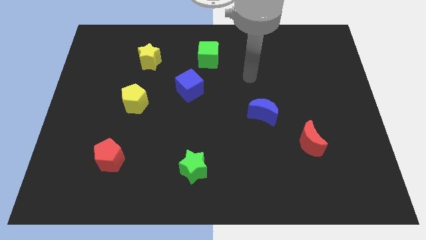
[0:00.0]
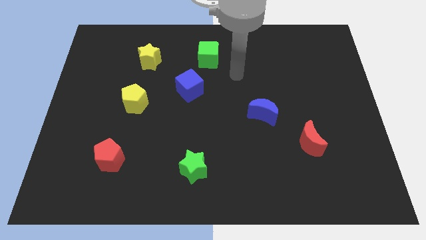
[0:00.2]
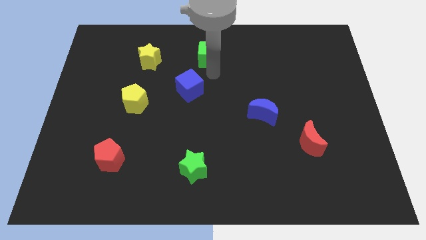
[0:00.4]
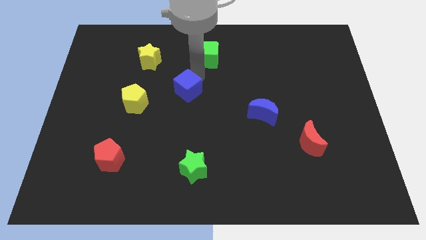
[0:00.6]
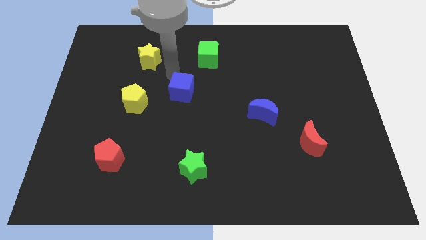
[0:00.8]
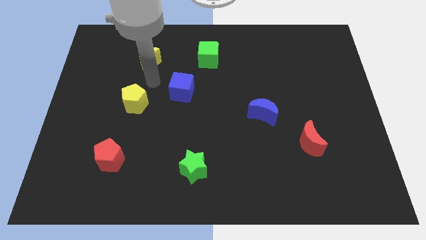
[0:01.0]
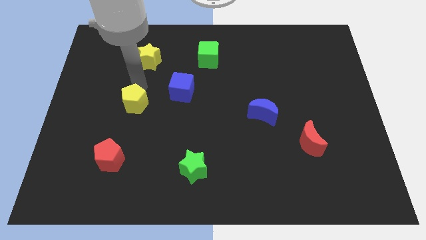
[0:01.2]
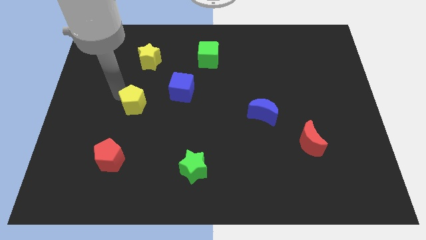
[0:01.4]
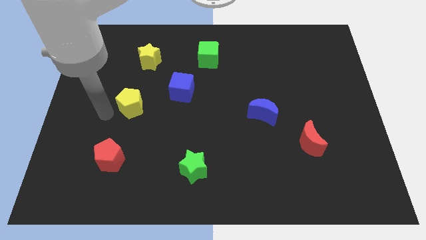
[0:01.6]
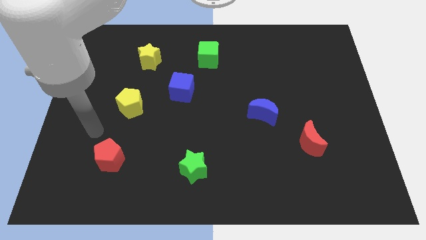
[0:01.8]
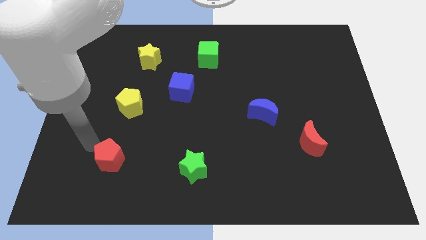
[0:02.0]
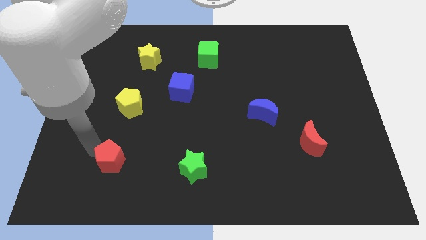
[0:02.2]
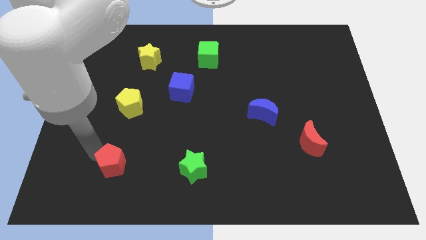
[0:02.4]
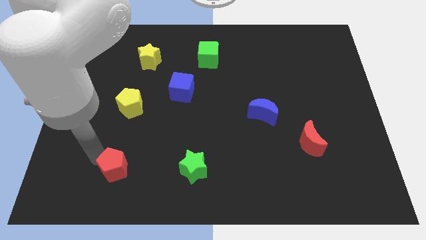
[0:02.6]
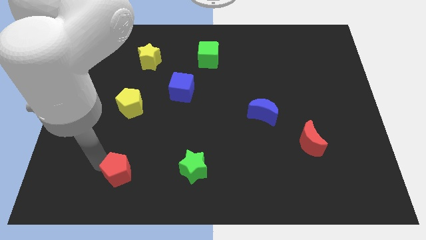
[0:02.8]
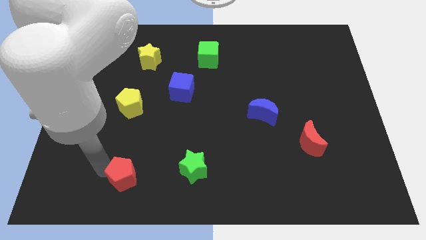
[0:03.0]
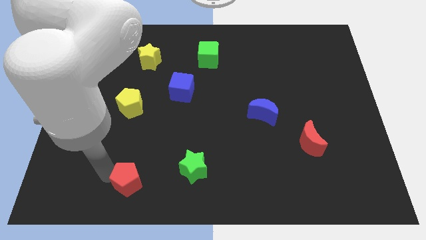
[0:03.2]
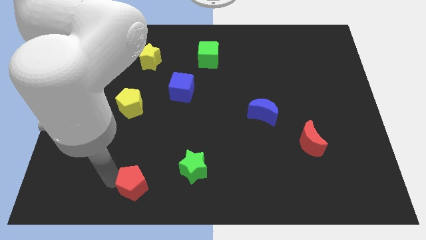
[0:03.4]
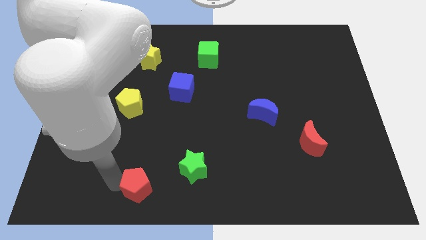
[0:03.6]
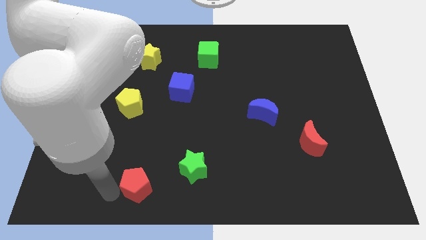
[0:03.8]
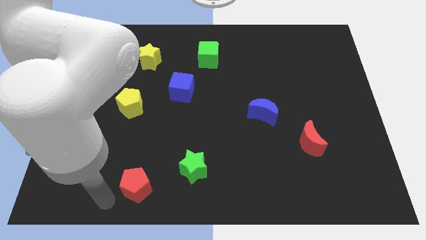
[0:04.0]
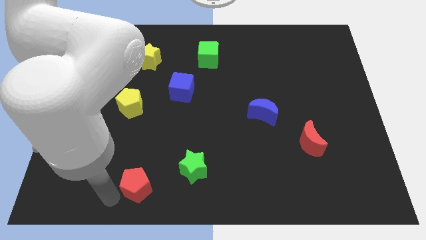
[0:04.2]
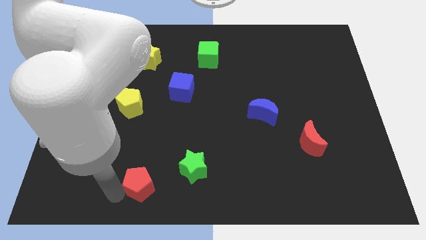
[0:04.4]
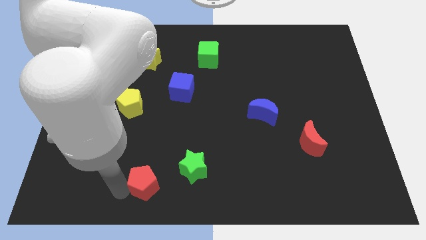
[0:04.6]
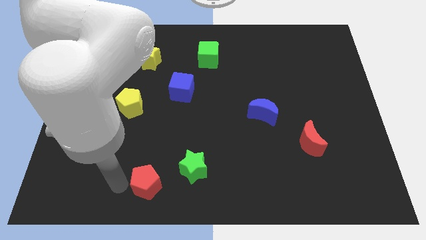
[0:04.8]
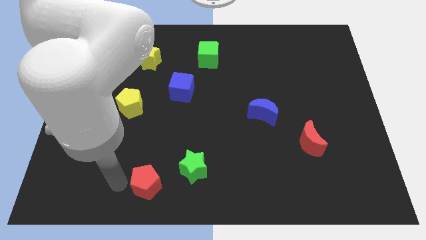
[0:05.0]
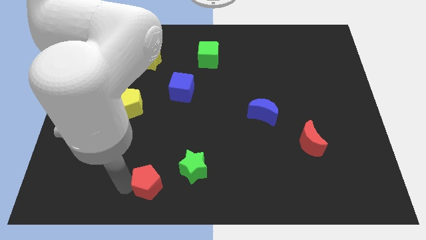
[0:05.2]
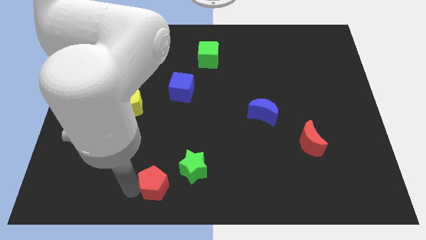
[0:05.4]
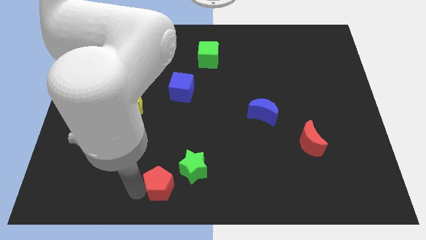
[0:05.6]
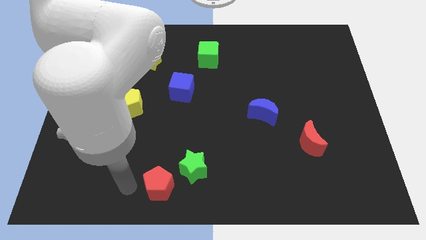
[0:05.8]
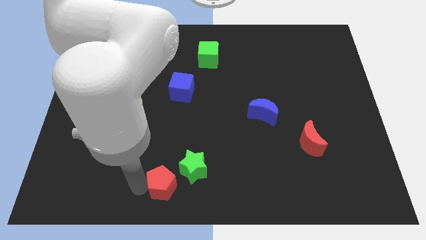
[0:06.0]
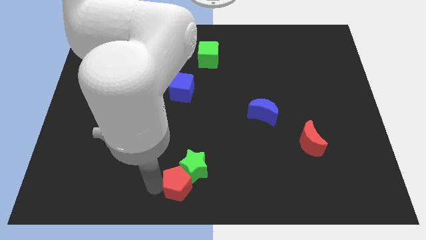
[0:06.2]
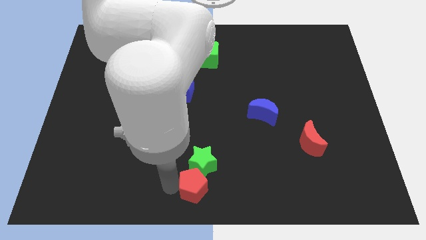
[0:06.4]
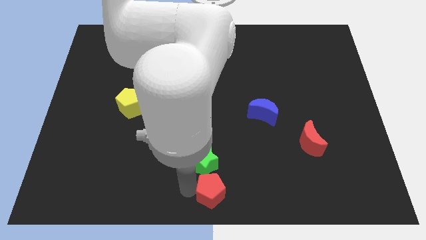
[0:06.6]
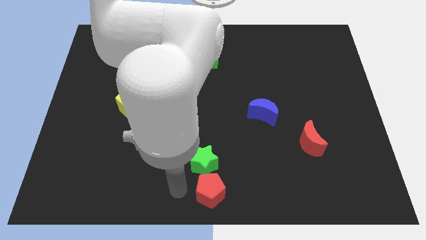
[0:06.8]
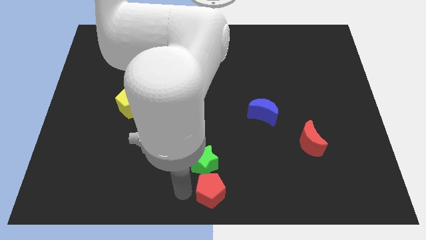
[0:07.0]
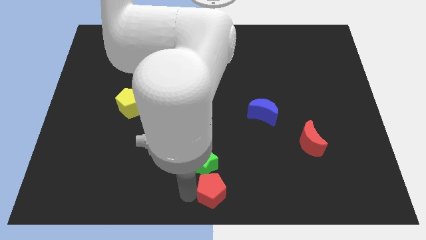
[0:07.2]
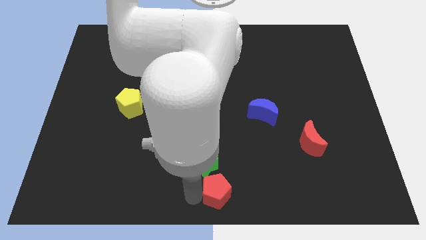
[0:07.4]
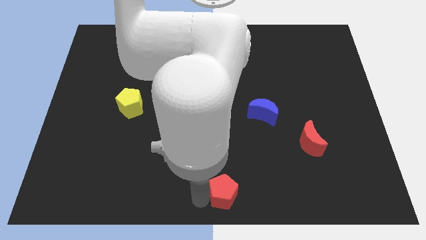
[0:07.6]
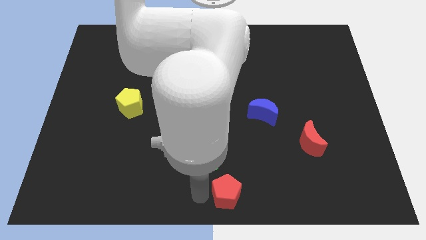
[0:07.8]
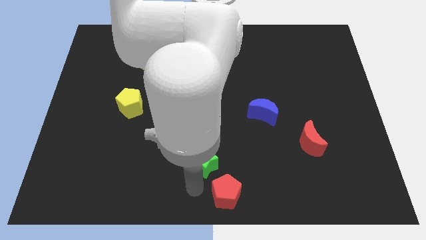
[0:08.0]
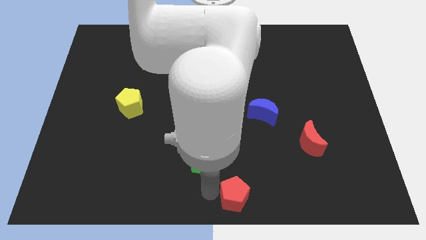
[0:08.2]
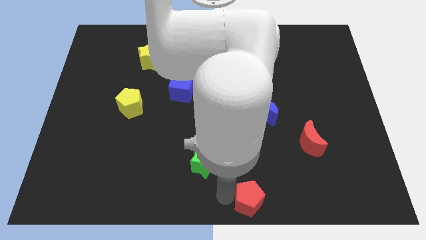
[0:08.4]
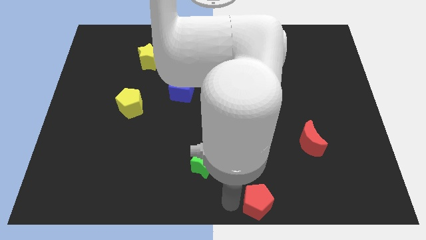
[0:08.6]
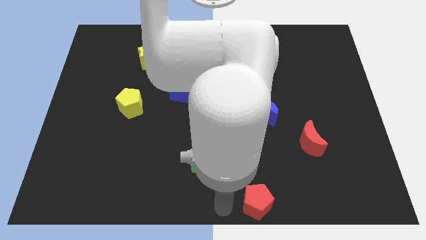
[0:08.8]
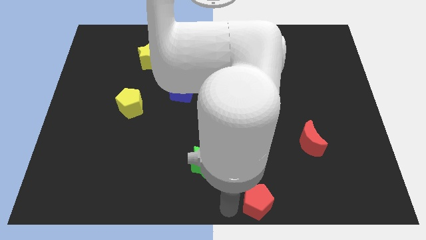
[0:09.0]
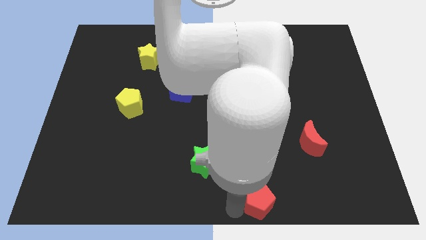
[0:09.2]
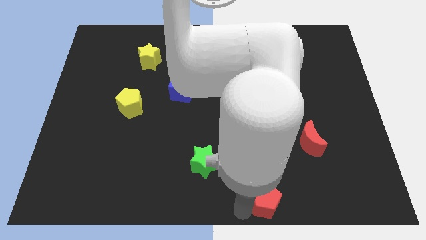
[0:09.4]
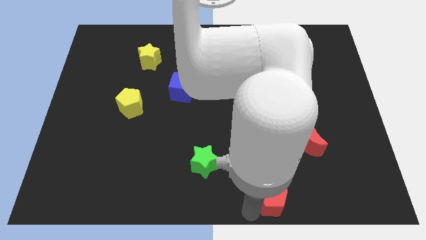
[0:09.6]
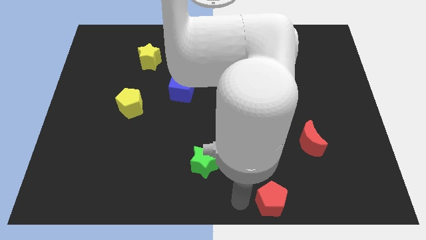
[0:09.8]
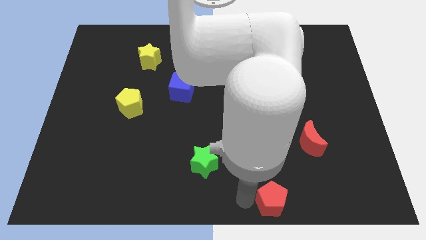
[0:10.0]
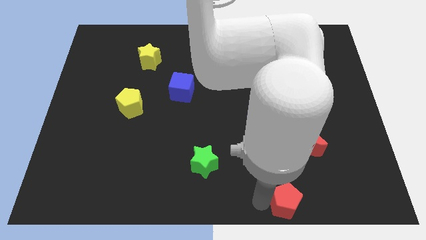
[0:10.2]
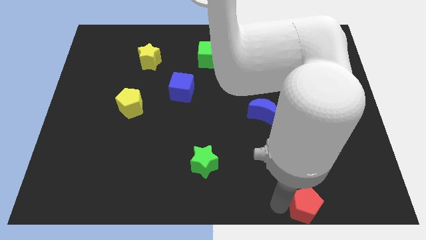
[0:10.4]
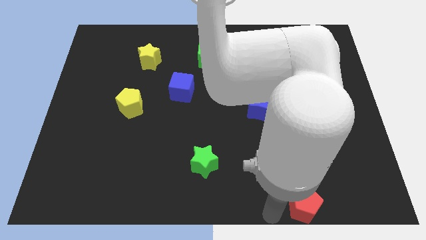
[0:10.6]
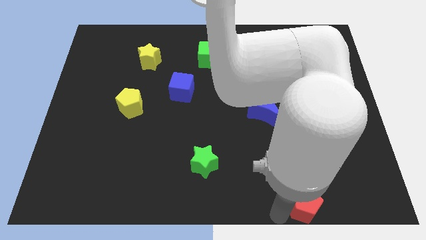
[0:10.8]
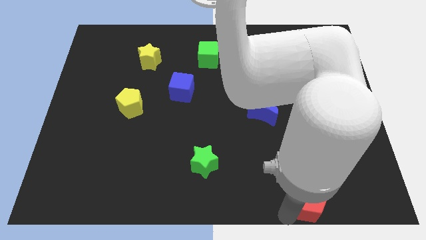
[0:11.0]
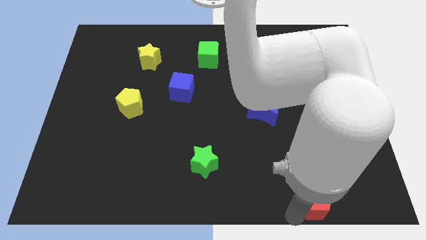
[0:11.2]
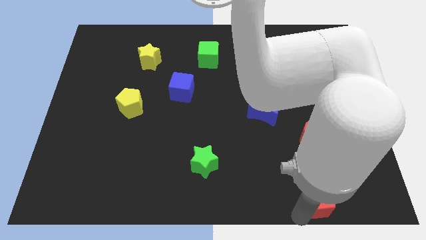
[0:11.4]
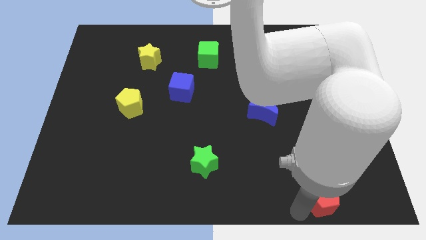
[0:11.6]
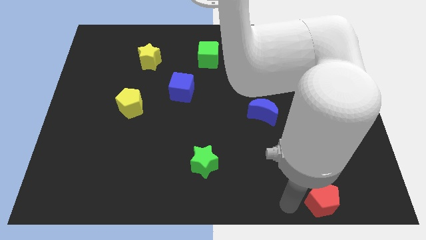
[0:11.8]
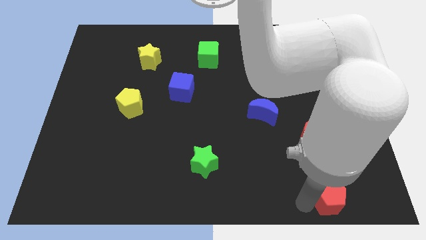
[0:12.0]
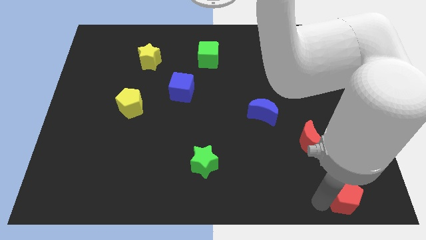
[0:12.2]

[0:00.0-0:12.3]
slide the red pentagon to the bottom right corner
